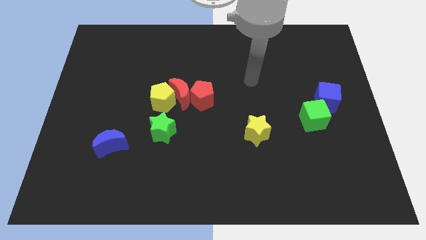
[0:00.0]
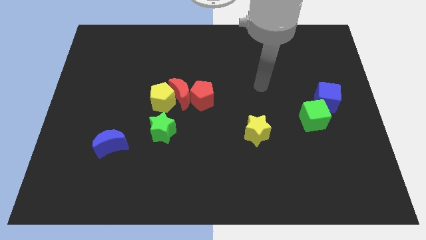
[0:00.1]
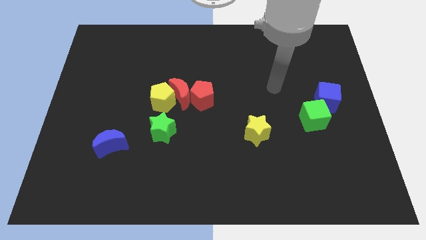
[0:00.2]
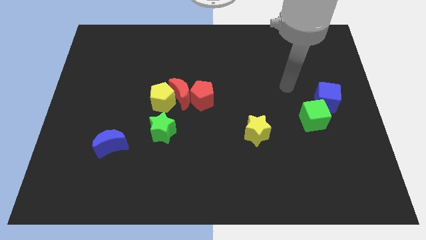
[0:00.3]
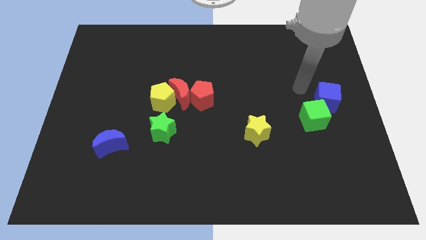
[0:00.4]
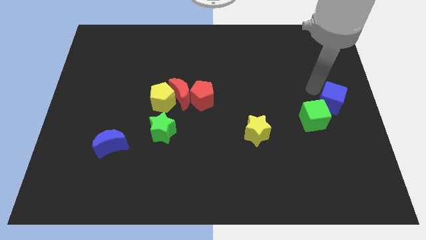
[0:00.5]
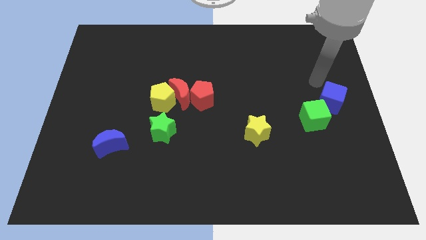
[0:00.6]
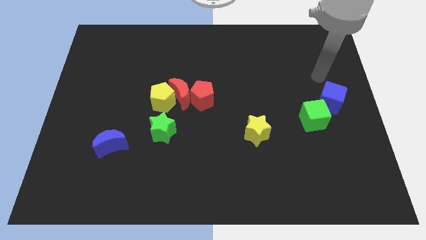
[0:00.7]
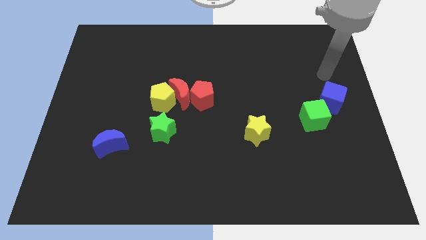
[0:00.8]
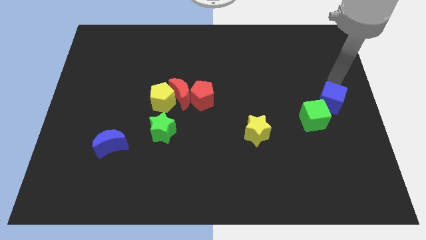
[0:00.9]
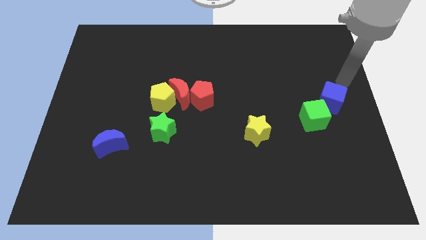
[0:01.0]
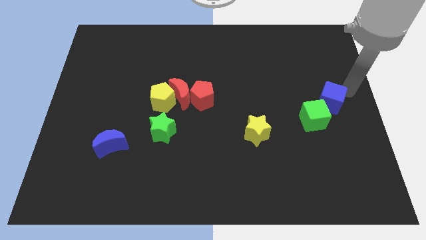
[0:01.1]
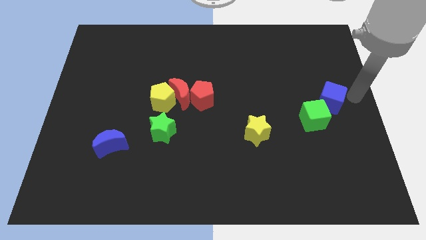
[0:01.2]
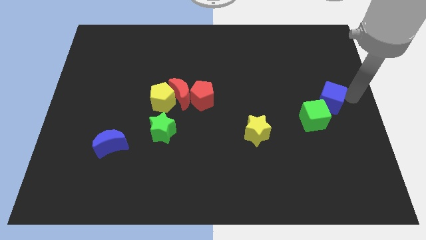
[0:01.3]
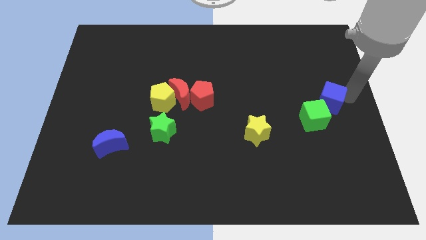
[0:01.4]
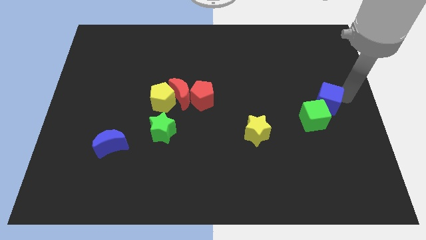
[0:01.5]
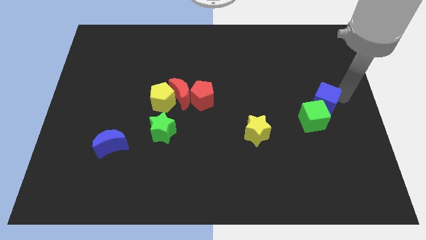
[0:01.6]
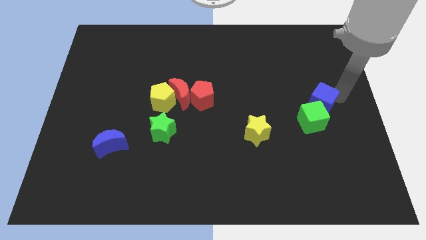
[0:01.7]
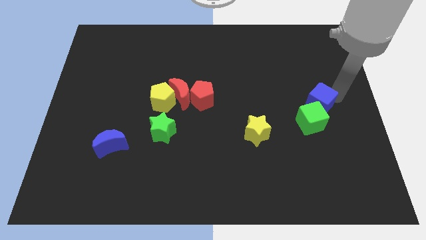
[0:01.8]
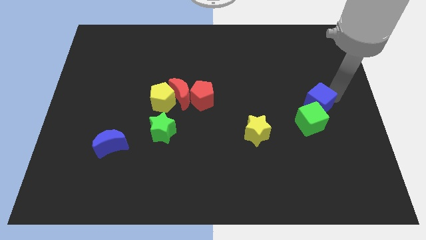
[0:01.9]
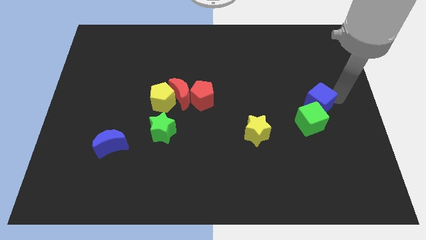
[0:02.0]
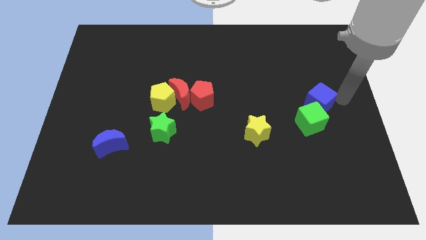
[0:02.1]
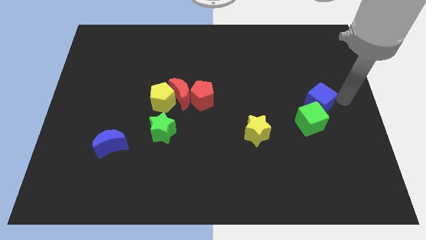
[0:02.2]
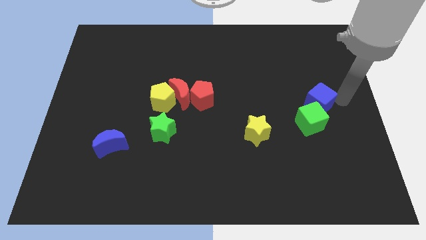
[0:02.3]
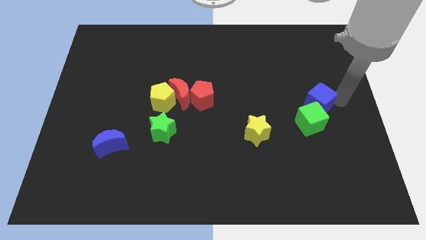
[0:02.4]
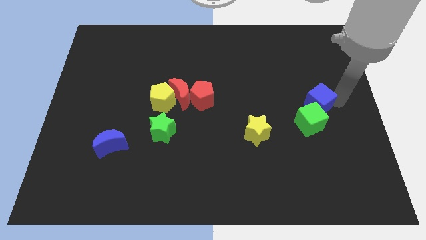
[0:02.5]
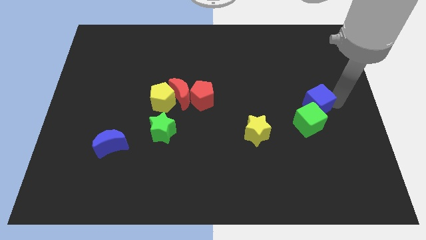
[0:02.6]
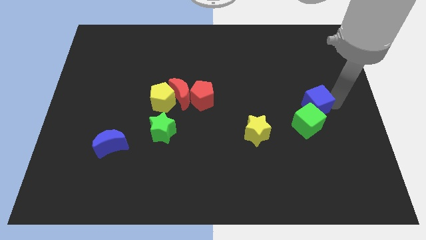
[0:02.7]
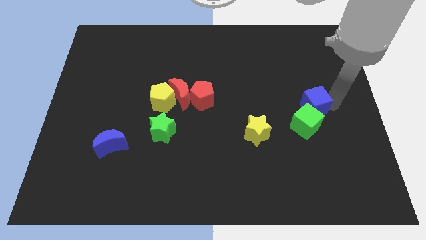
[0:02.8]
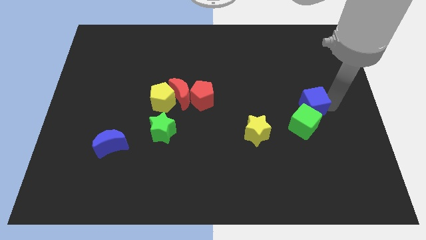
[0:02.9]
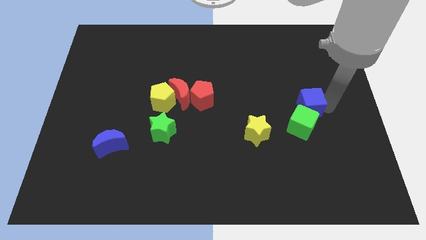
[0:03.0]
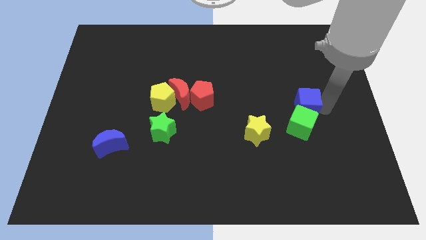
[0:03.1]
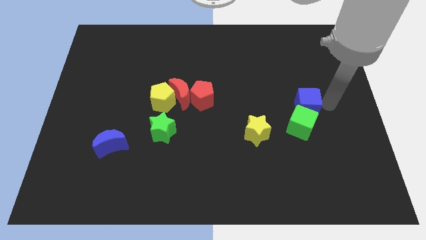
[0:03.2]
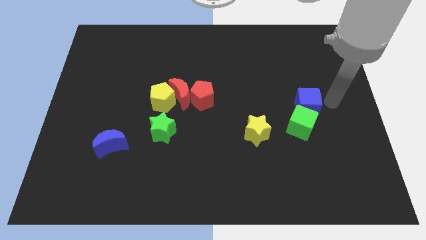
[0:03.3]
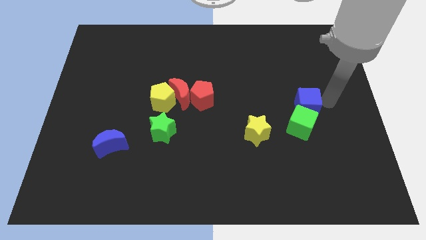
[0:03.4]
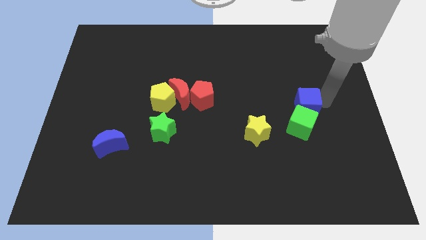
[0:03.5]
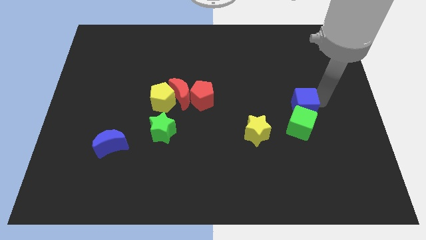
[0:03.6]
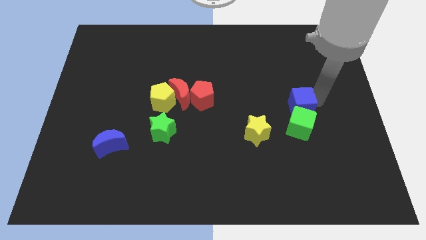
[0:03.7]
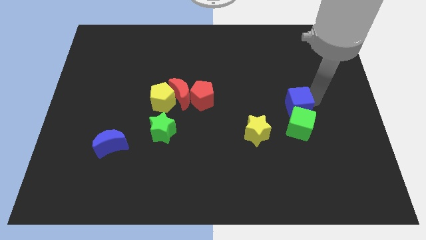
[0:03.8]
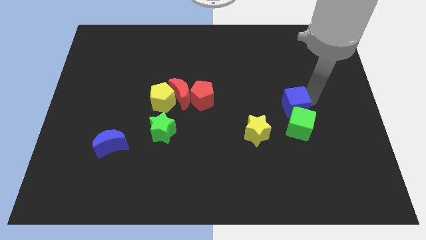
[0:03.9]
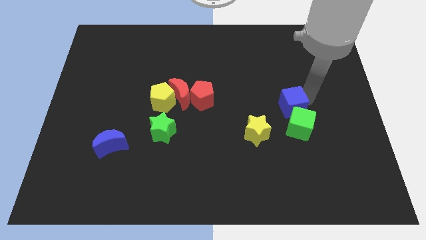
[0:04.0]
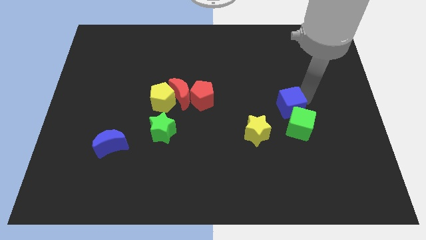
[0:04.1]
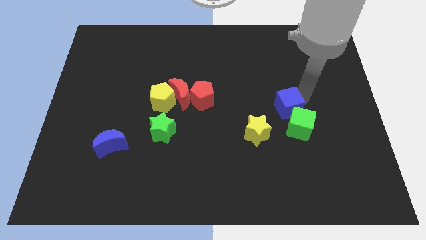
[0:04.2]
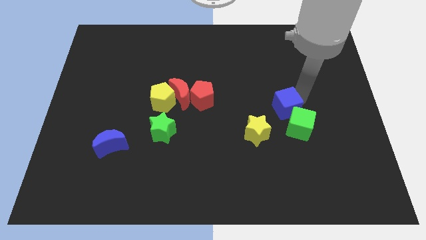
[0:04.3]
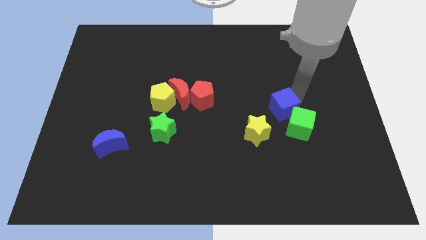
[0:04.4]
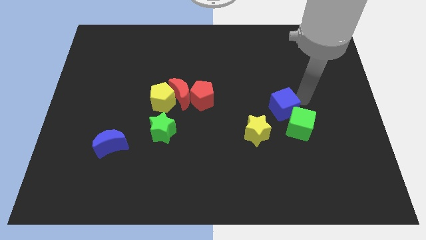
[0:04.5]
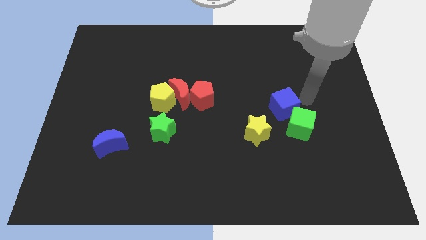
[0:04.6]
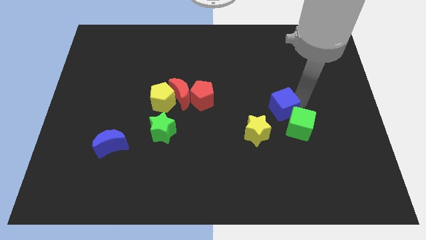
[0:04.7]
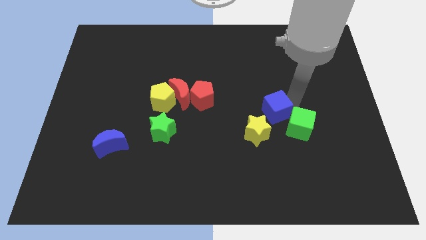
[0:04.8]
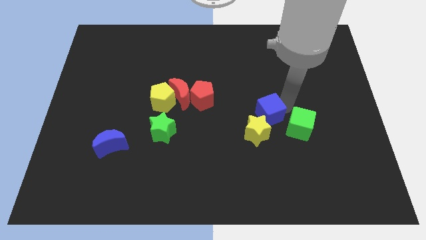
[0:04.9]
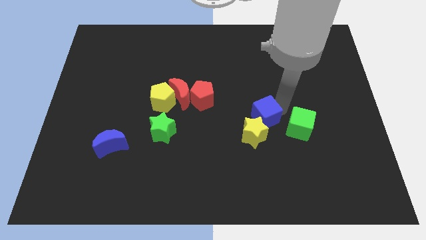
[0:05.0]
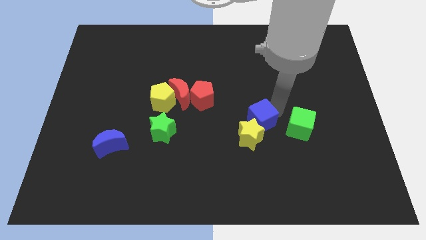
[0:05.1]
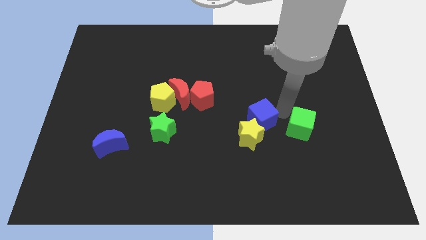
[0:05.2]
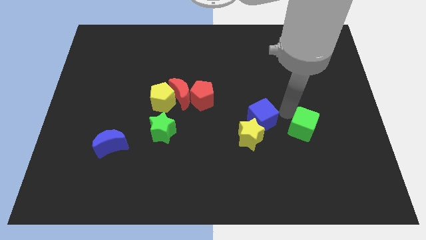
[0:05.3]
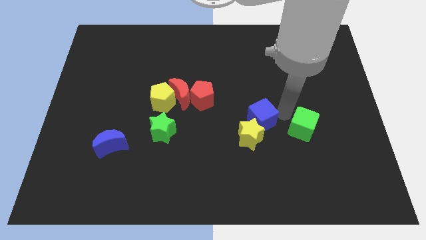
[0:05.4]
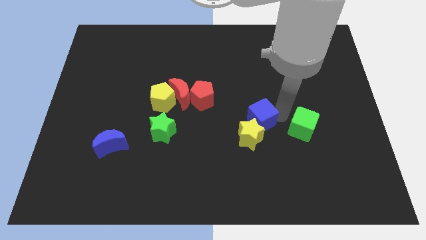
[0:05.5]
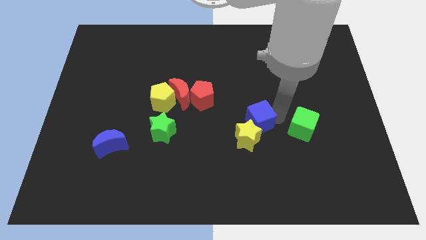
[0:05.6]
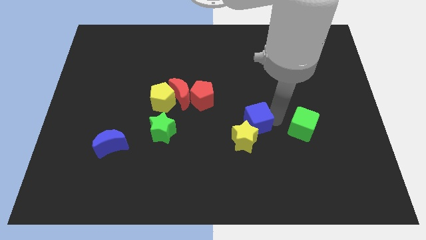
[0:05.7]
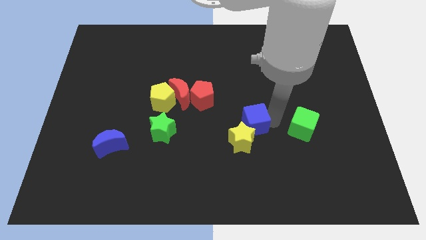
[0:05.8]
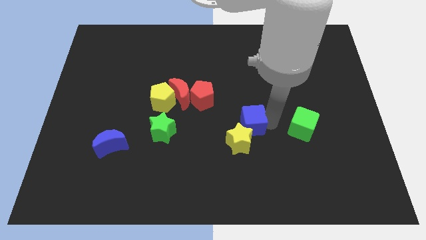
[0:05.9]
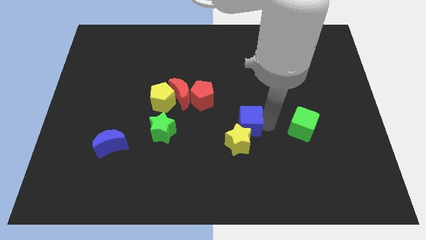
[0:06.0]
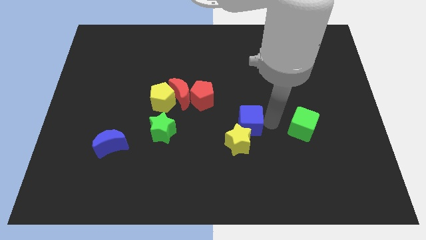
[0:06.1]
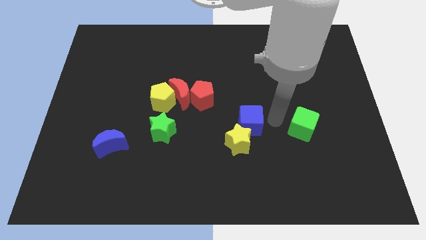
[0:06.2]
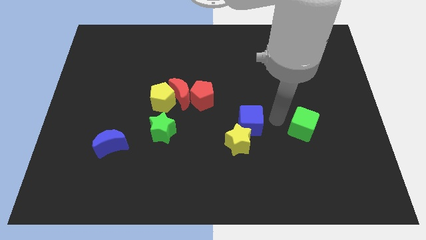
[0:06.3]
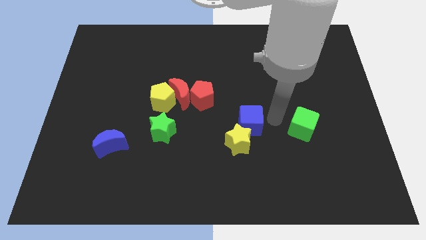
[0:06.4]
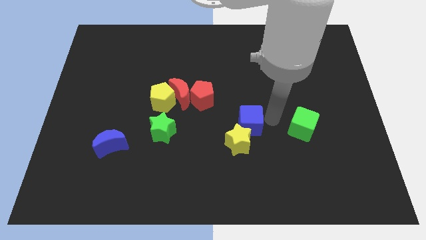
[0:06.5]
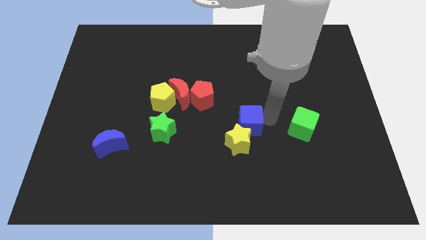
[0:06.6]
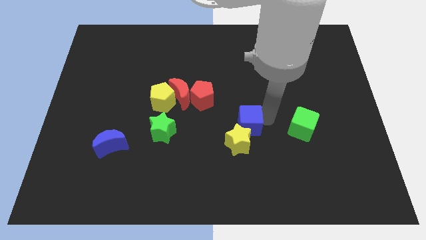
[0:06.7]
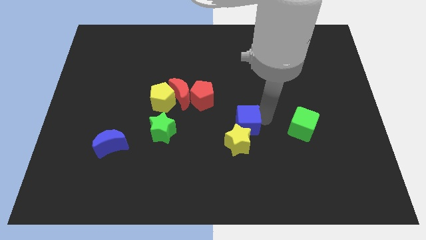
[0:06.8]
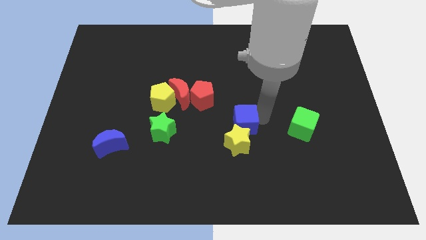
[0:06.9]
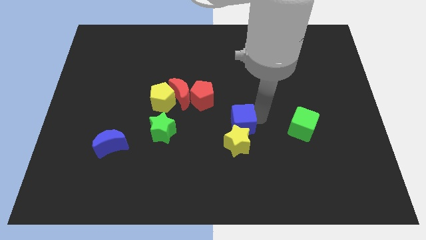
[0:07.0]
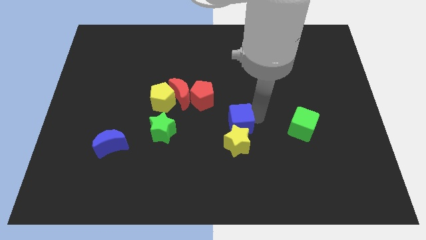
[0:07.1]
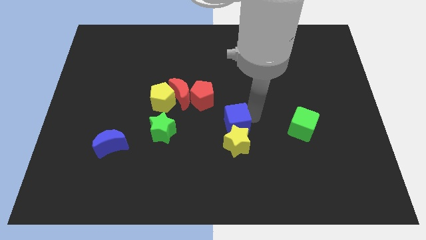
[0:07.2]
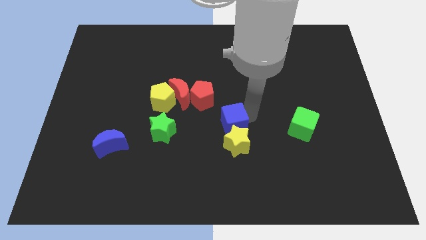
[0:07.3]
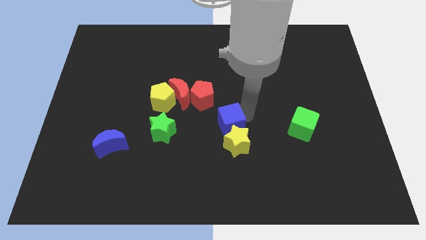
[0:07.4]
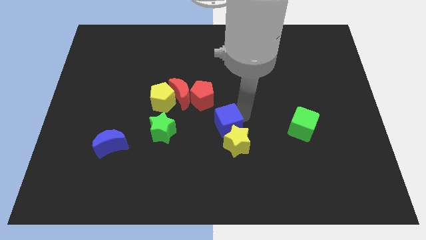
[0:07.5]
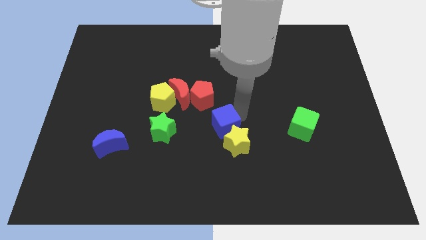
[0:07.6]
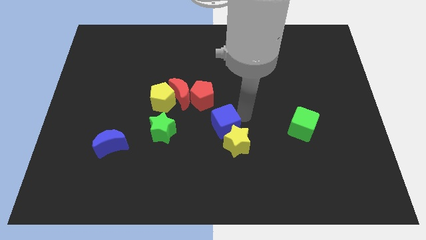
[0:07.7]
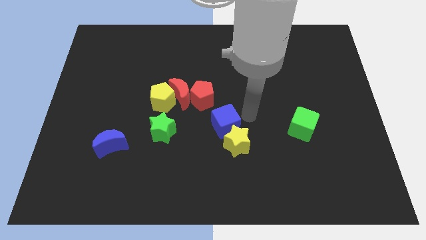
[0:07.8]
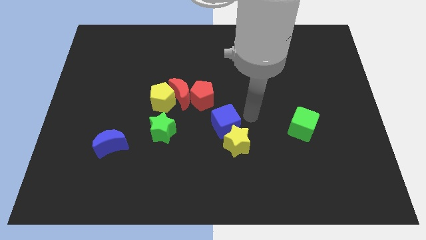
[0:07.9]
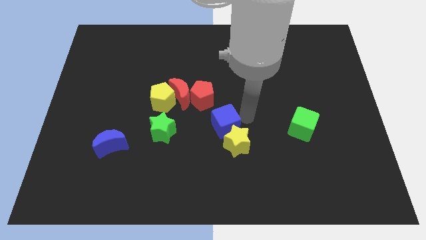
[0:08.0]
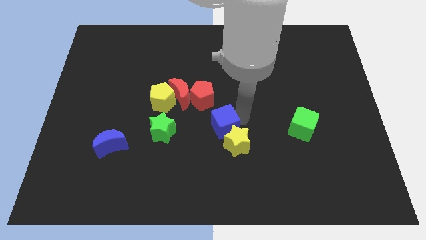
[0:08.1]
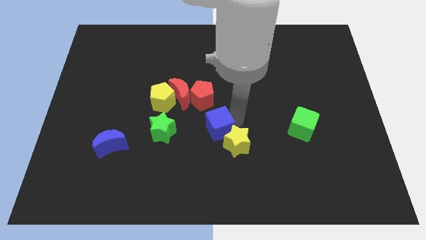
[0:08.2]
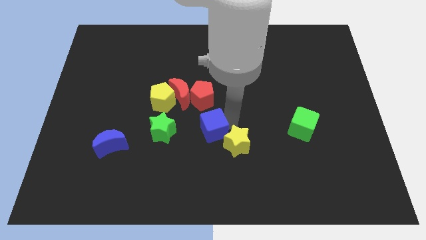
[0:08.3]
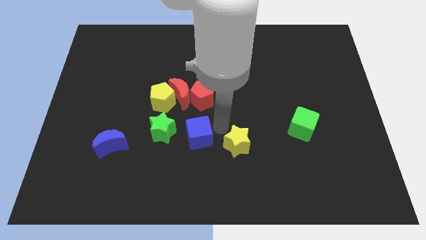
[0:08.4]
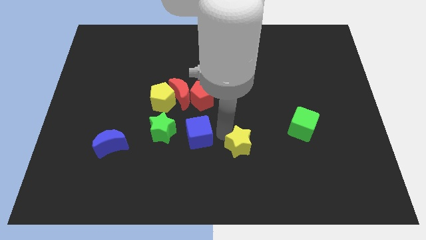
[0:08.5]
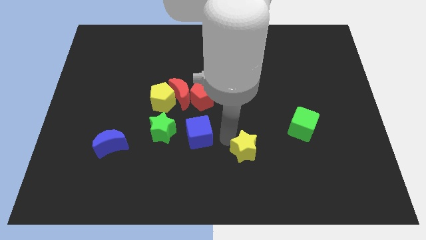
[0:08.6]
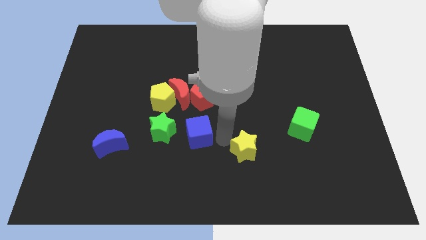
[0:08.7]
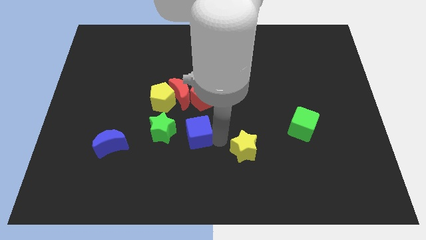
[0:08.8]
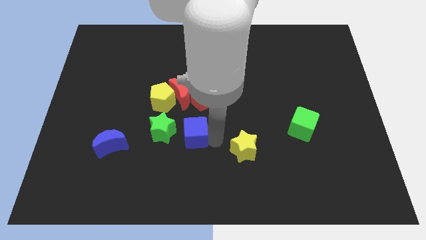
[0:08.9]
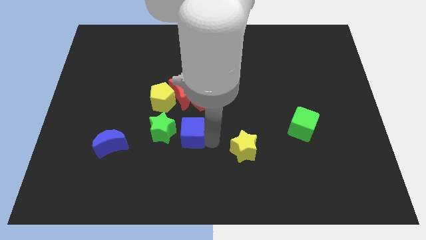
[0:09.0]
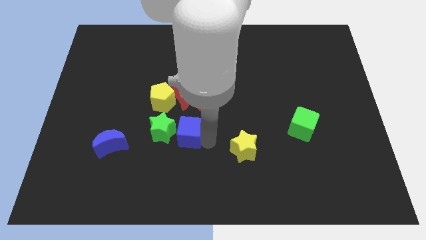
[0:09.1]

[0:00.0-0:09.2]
move the blue cube towards the green star
